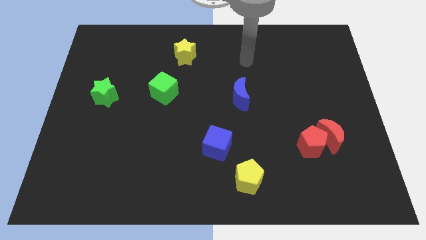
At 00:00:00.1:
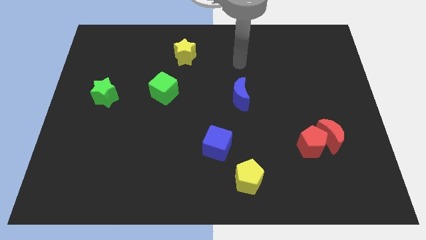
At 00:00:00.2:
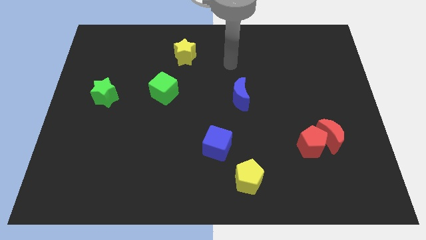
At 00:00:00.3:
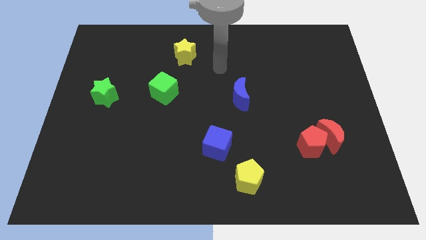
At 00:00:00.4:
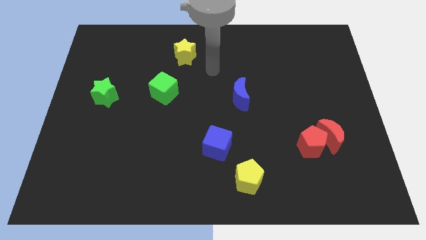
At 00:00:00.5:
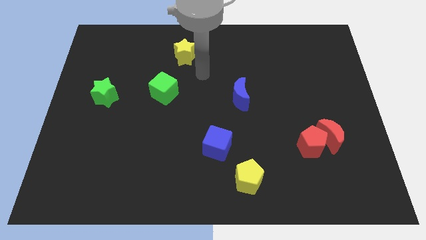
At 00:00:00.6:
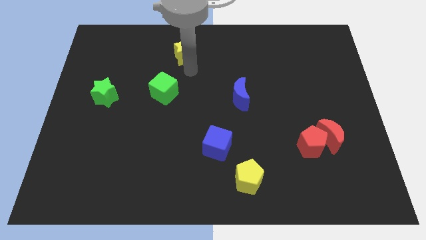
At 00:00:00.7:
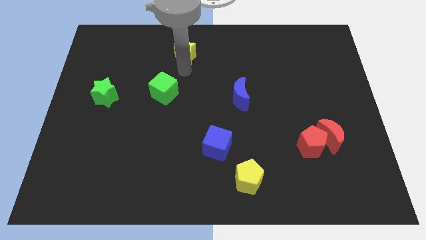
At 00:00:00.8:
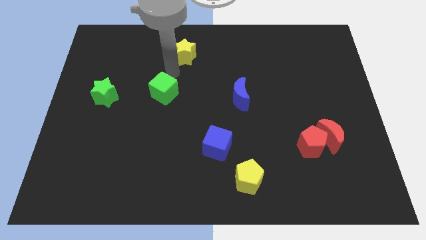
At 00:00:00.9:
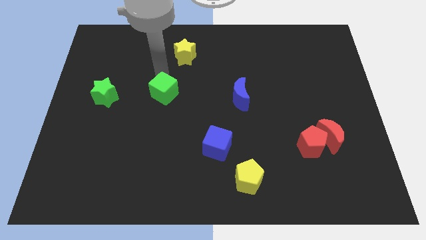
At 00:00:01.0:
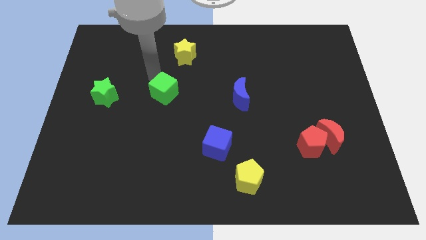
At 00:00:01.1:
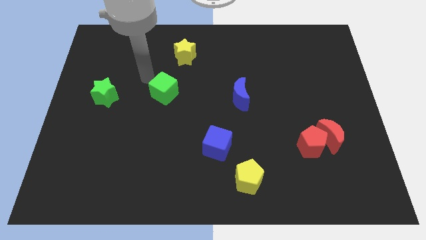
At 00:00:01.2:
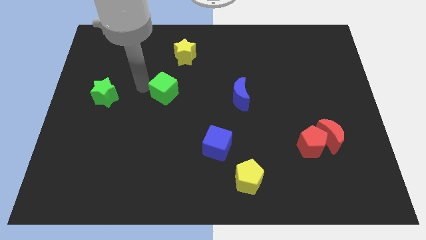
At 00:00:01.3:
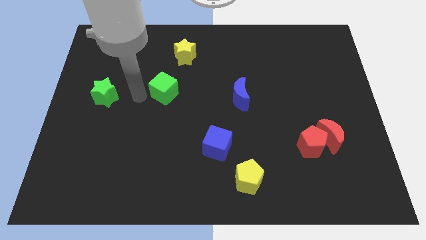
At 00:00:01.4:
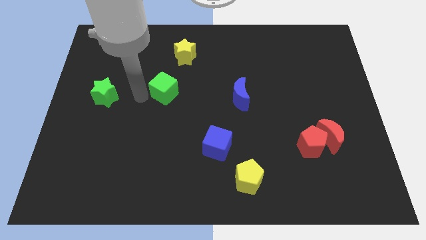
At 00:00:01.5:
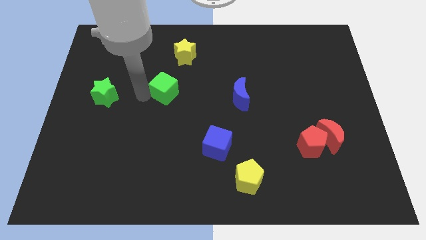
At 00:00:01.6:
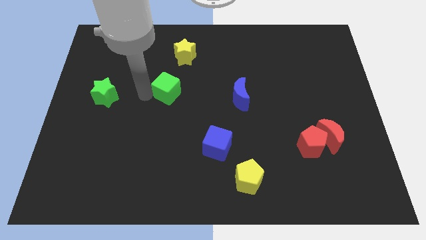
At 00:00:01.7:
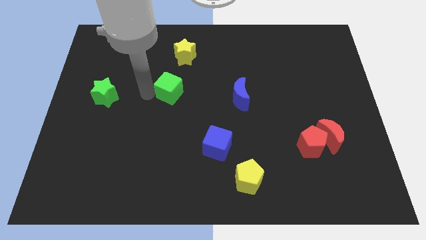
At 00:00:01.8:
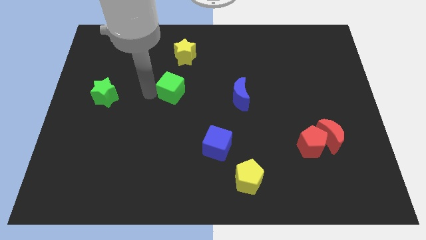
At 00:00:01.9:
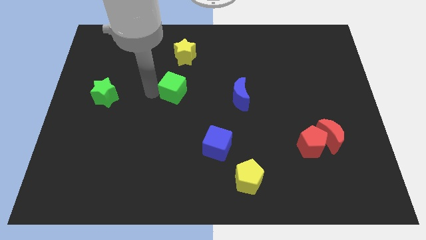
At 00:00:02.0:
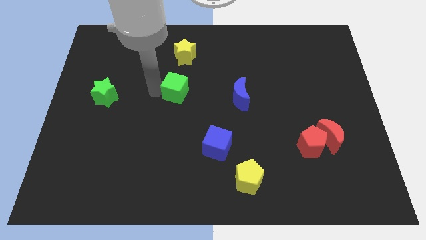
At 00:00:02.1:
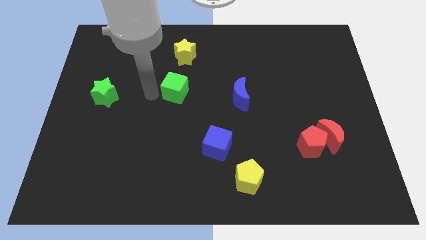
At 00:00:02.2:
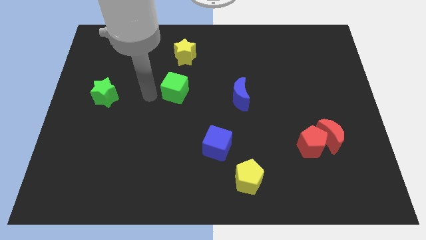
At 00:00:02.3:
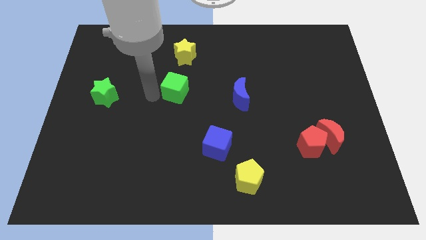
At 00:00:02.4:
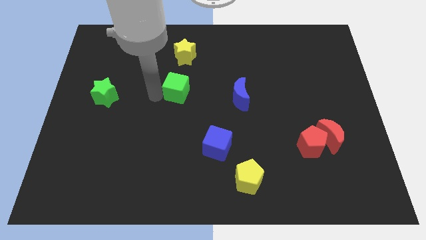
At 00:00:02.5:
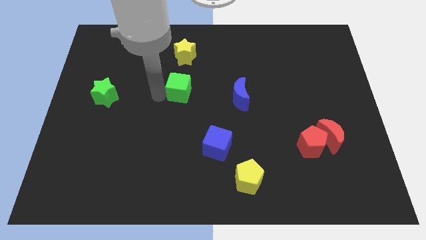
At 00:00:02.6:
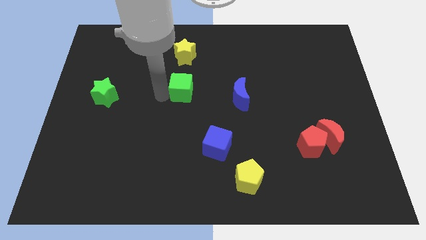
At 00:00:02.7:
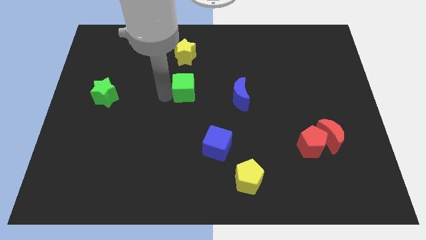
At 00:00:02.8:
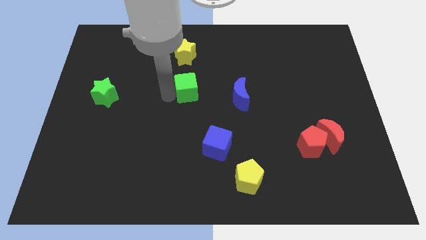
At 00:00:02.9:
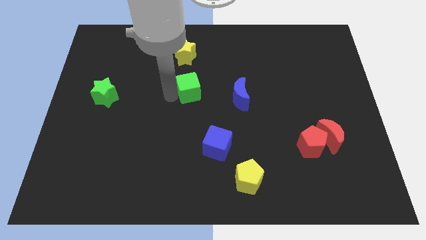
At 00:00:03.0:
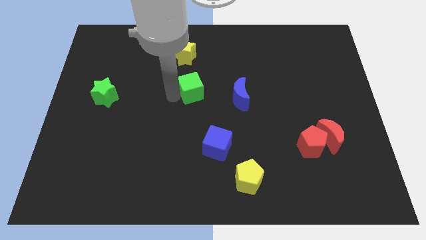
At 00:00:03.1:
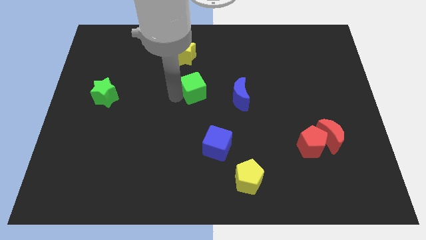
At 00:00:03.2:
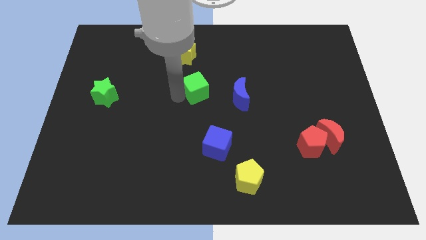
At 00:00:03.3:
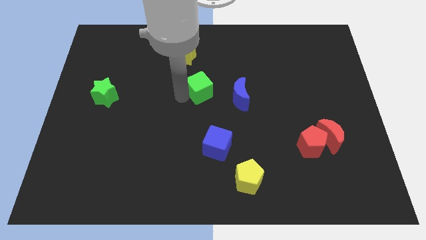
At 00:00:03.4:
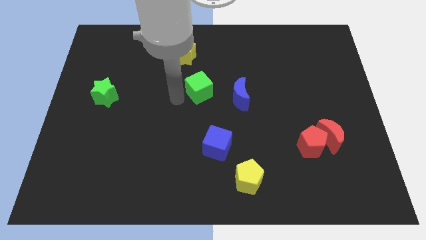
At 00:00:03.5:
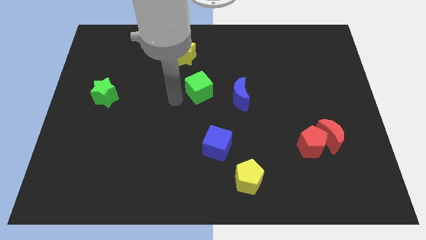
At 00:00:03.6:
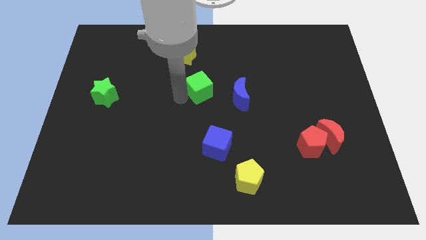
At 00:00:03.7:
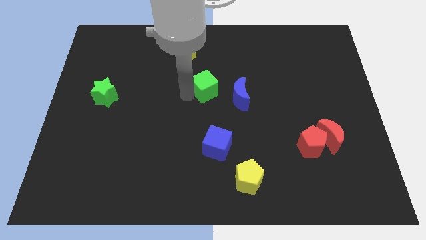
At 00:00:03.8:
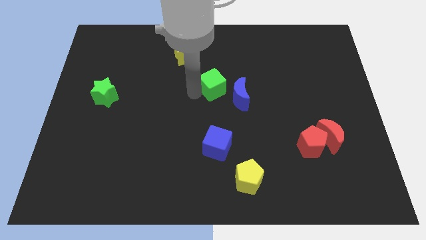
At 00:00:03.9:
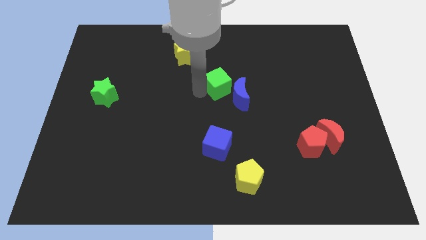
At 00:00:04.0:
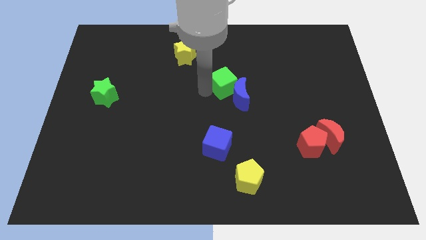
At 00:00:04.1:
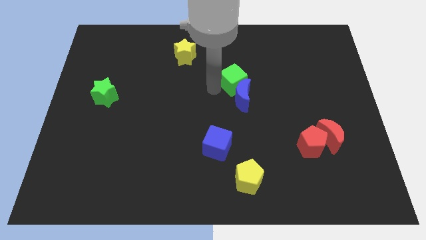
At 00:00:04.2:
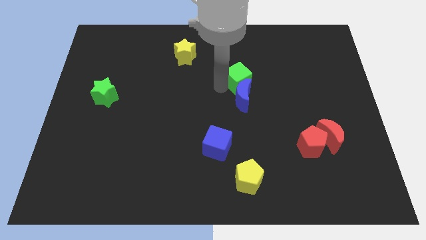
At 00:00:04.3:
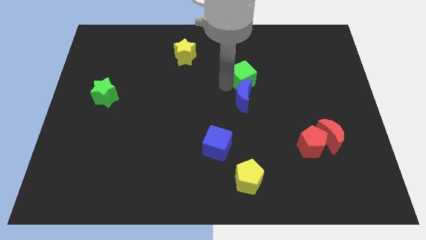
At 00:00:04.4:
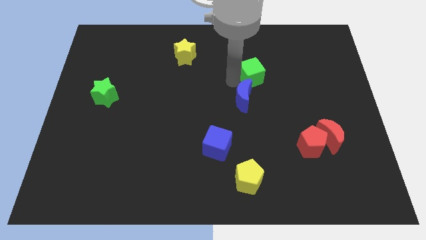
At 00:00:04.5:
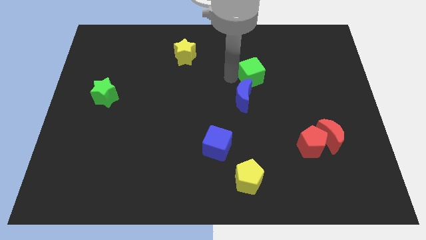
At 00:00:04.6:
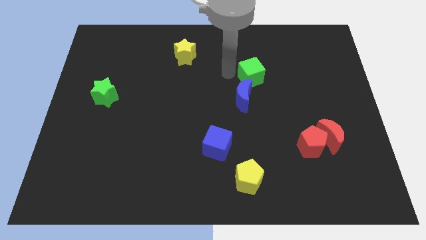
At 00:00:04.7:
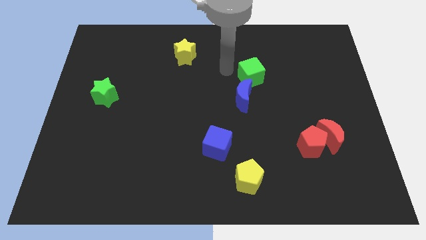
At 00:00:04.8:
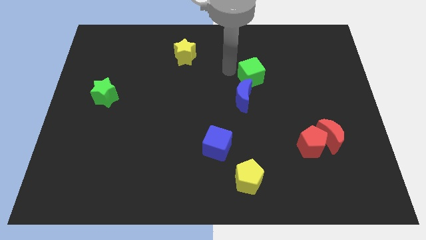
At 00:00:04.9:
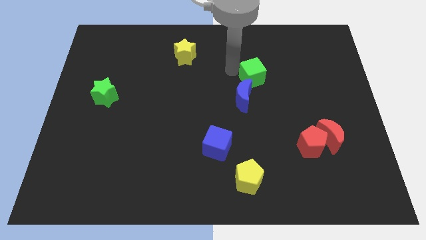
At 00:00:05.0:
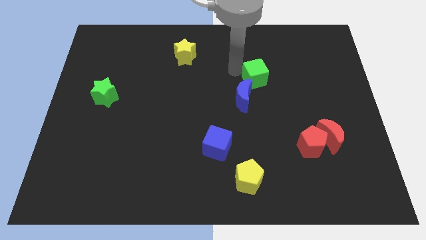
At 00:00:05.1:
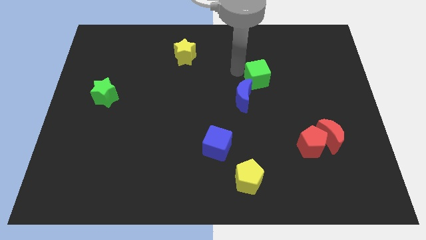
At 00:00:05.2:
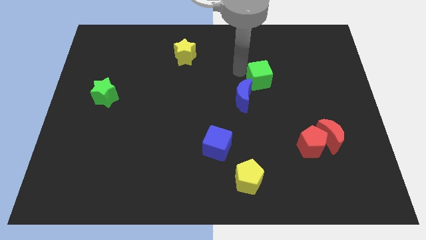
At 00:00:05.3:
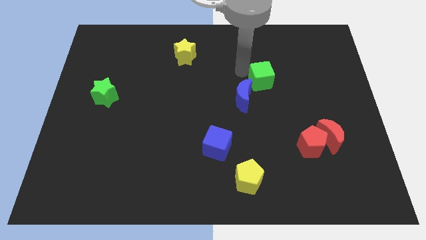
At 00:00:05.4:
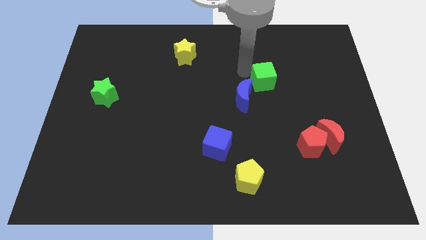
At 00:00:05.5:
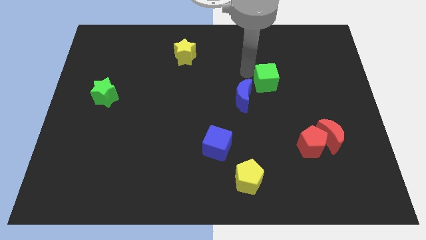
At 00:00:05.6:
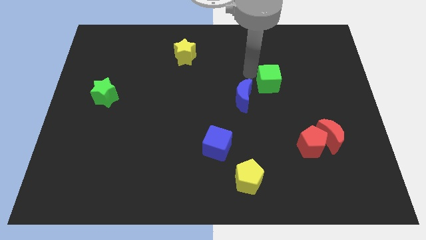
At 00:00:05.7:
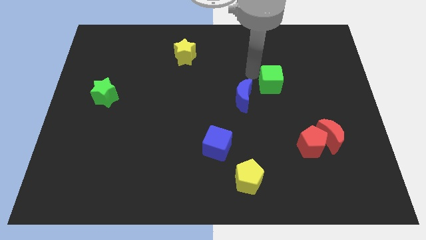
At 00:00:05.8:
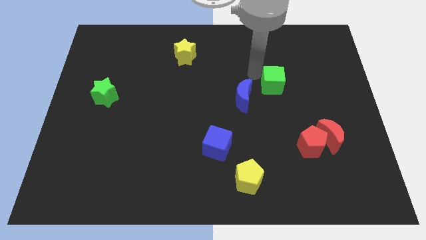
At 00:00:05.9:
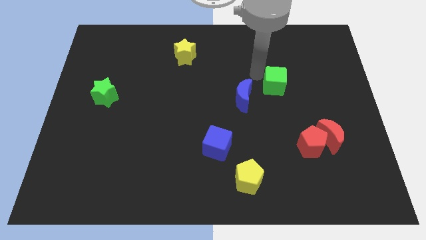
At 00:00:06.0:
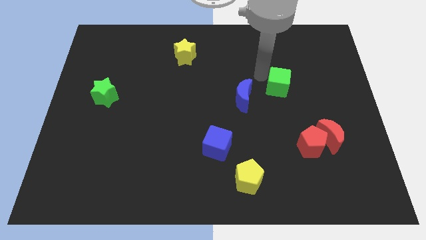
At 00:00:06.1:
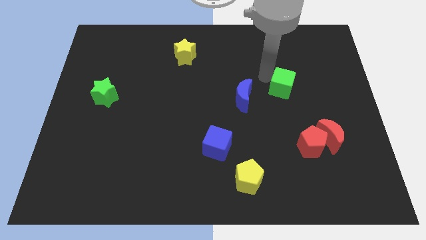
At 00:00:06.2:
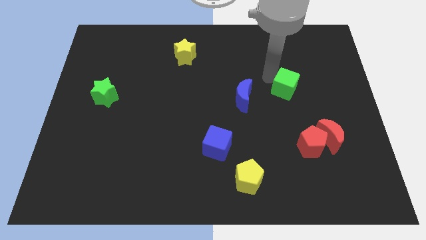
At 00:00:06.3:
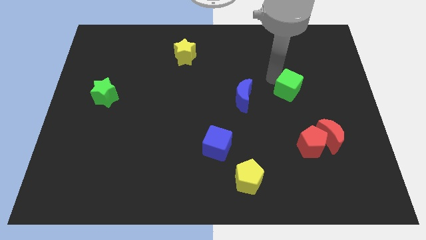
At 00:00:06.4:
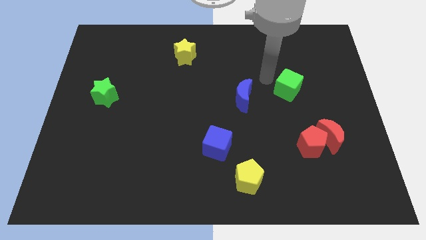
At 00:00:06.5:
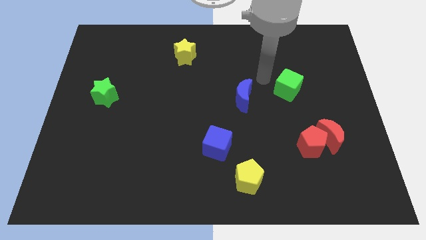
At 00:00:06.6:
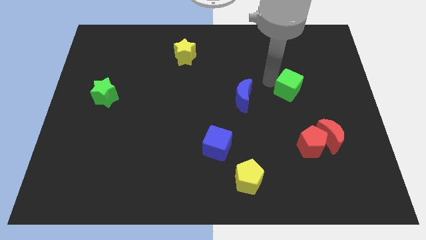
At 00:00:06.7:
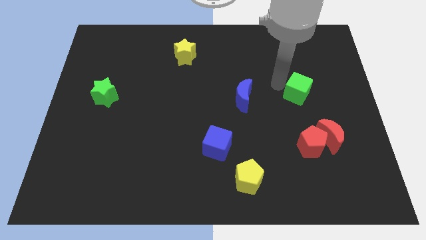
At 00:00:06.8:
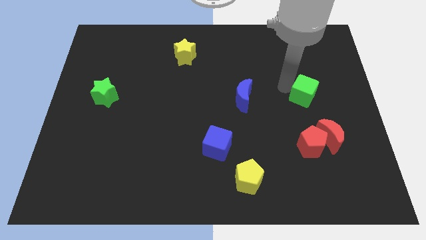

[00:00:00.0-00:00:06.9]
put the green cube to the top of the red moon

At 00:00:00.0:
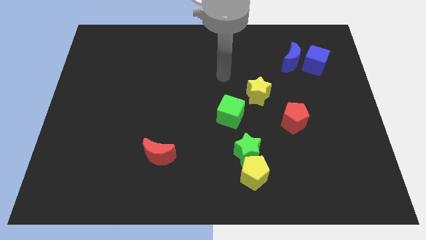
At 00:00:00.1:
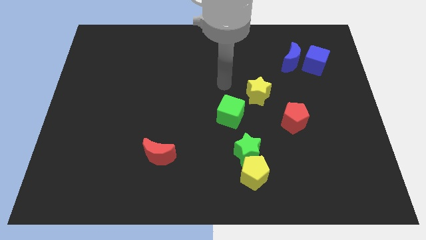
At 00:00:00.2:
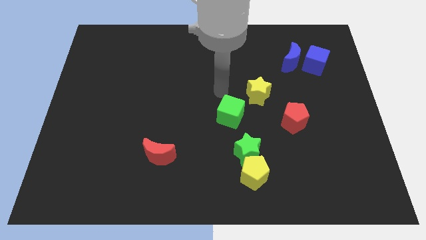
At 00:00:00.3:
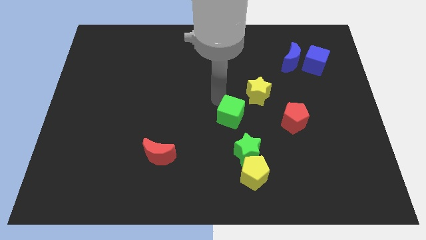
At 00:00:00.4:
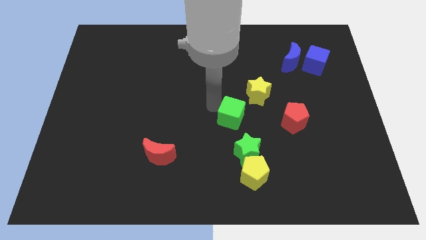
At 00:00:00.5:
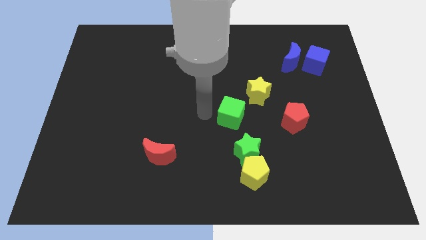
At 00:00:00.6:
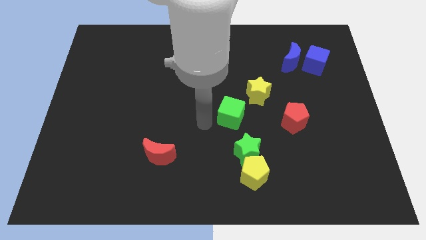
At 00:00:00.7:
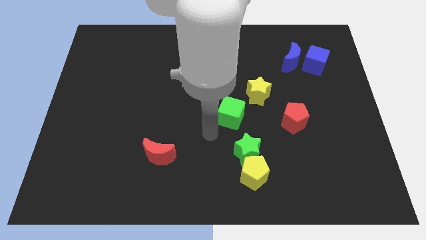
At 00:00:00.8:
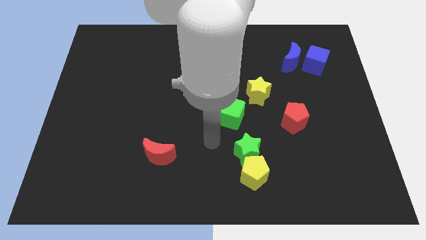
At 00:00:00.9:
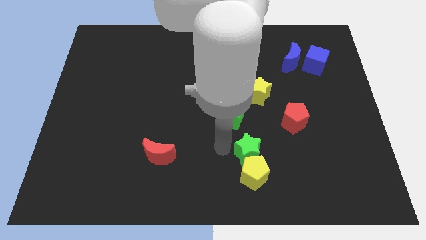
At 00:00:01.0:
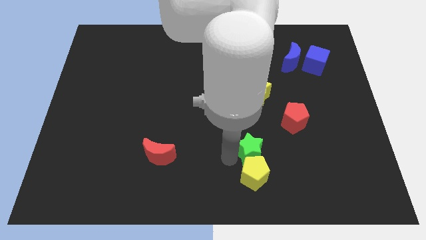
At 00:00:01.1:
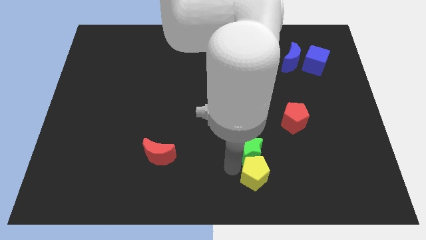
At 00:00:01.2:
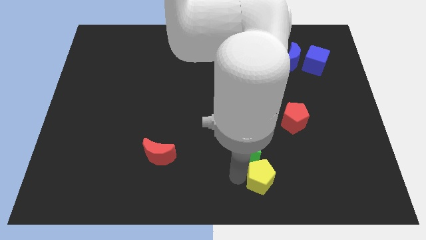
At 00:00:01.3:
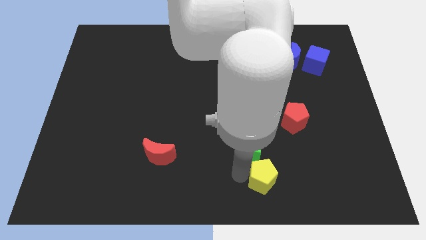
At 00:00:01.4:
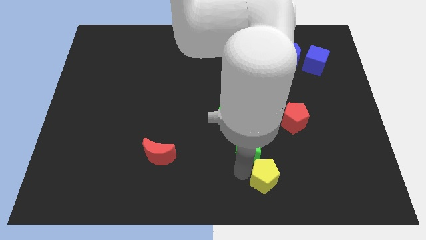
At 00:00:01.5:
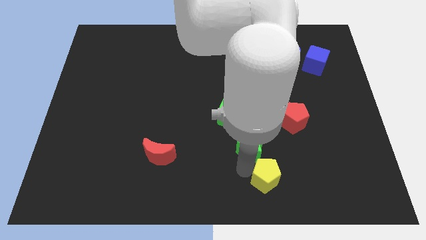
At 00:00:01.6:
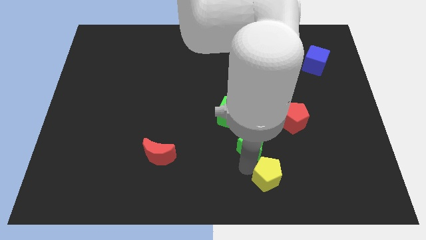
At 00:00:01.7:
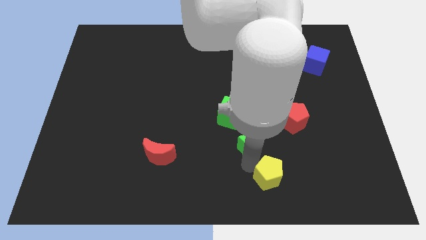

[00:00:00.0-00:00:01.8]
put the green star below the yellow star
